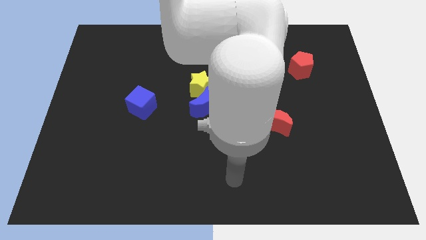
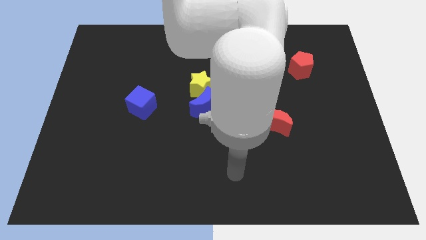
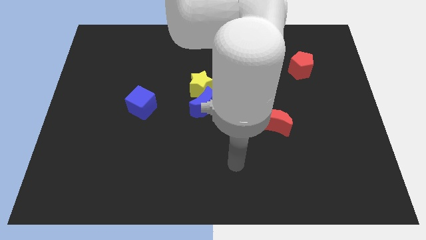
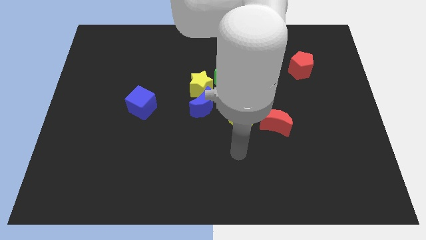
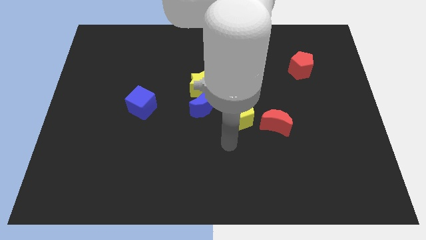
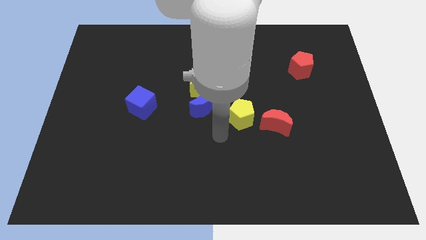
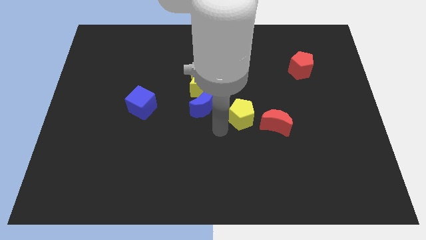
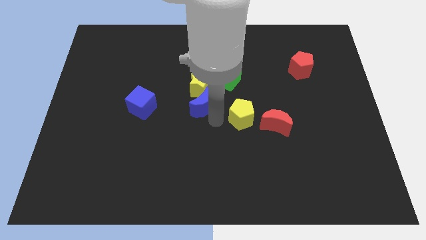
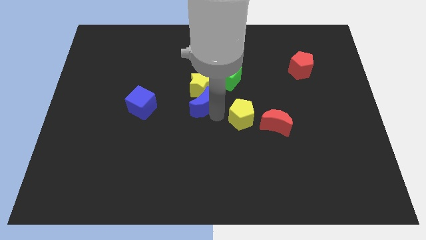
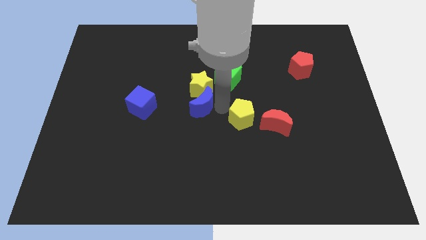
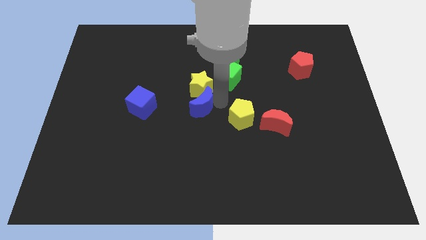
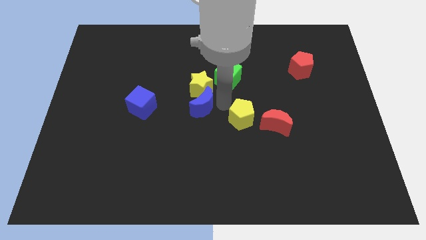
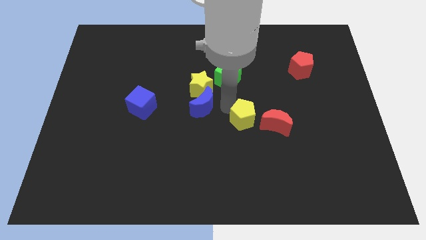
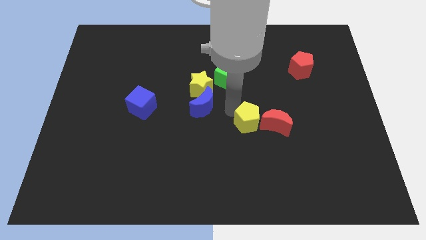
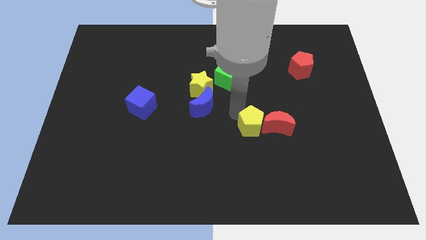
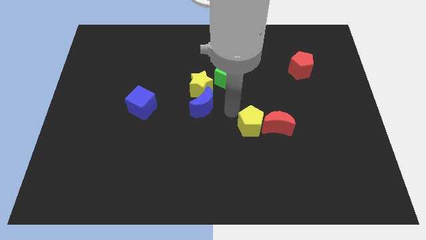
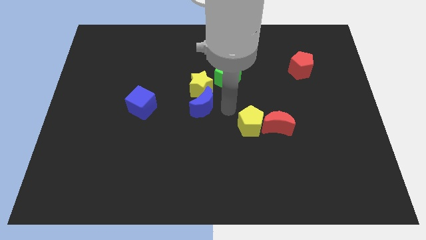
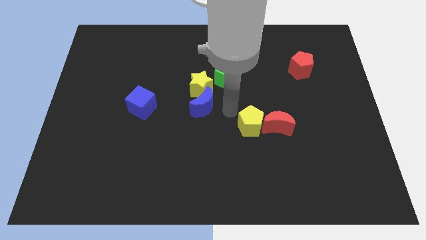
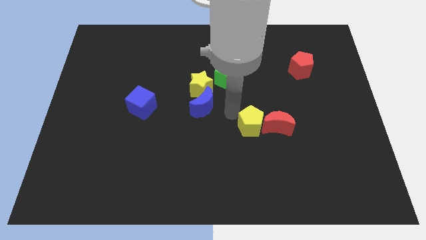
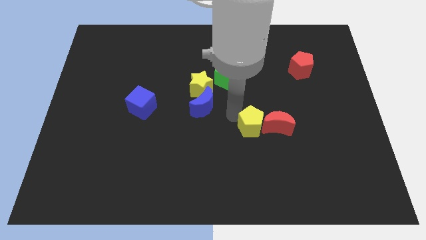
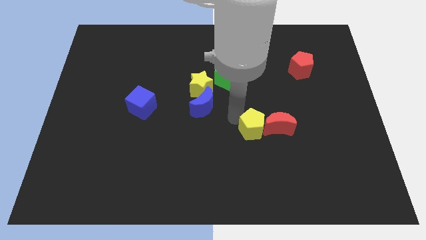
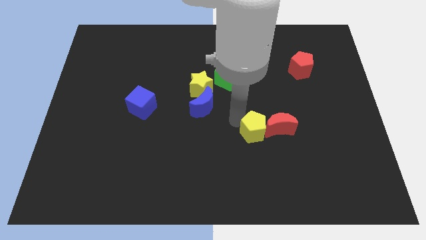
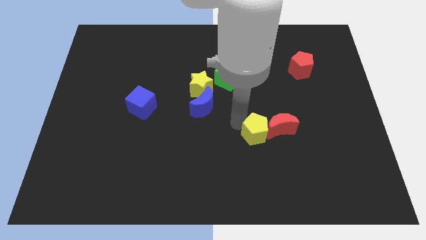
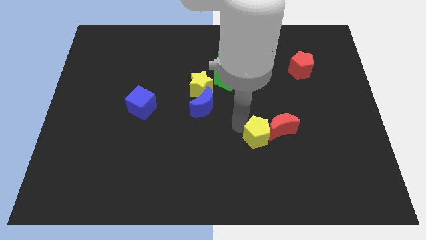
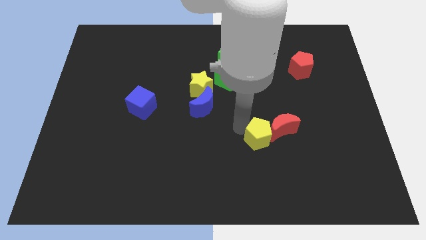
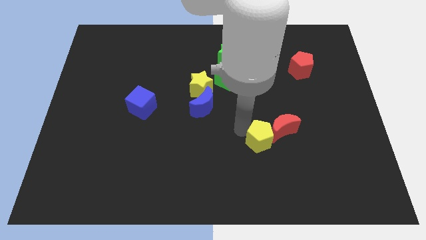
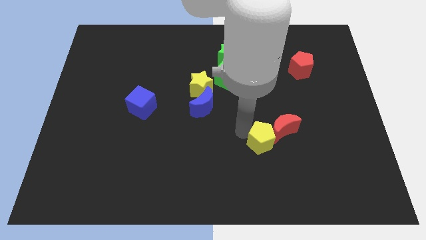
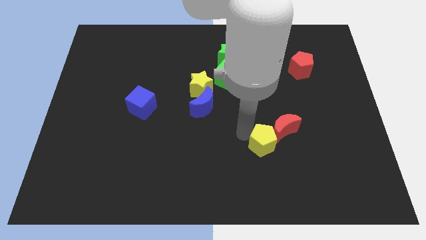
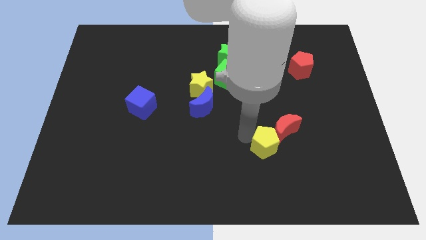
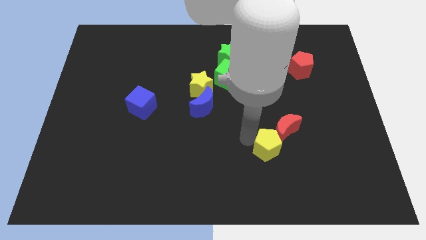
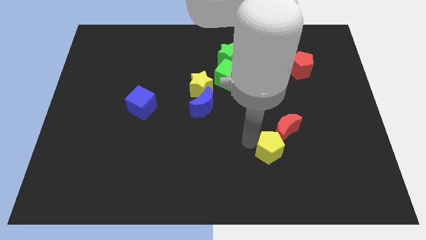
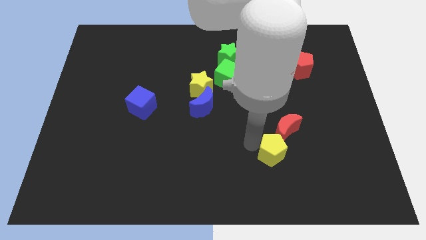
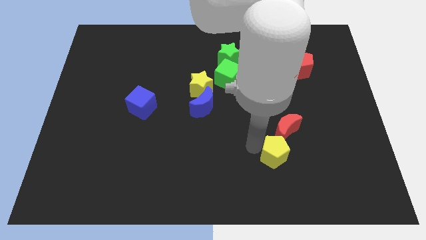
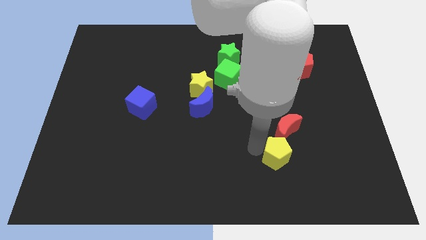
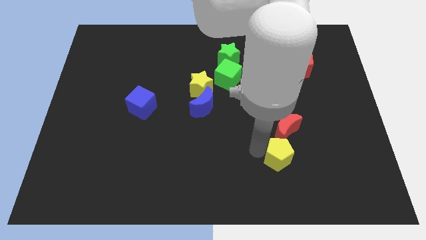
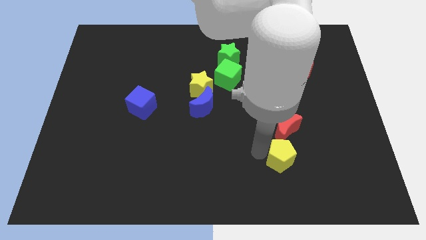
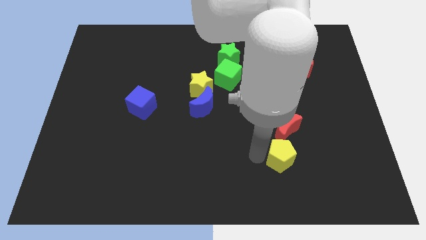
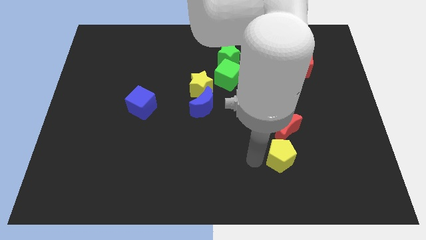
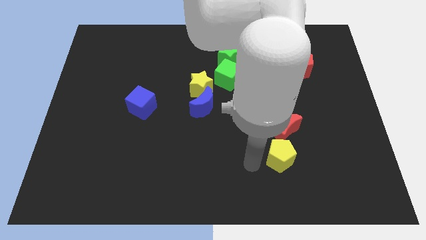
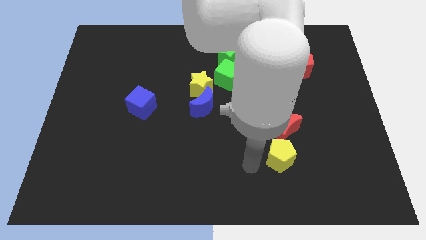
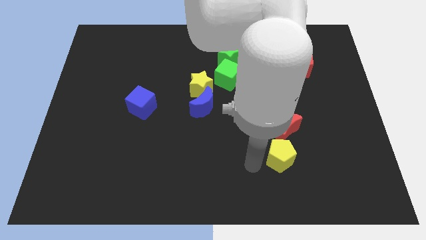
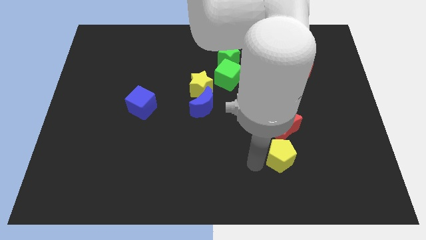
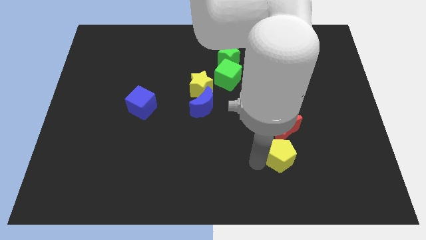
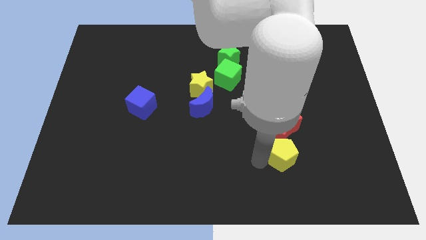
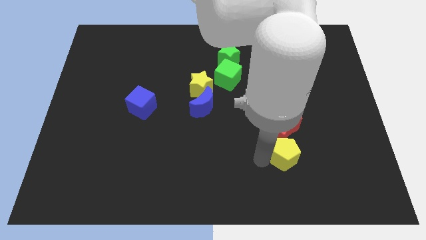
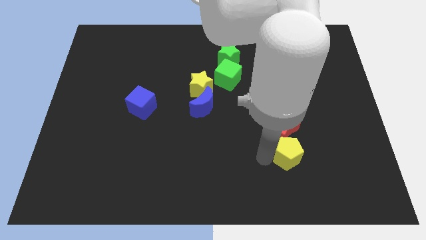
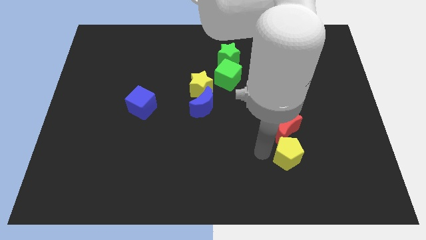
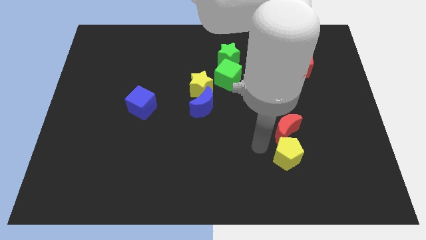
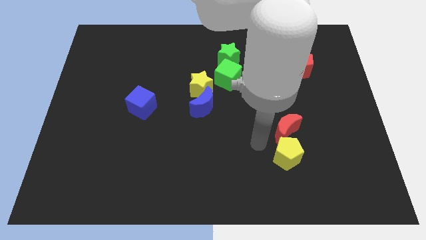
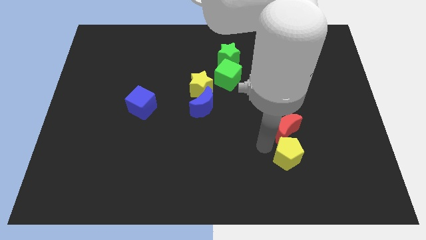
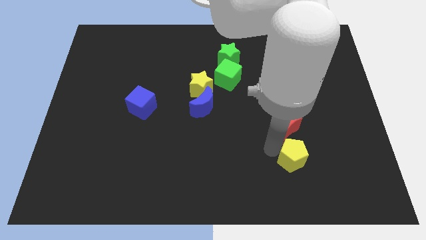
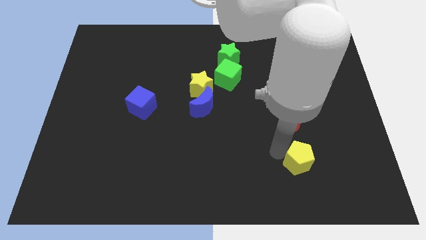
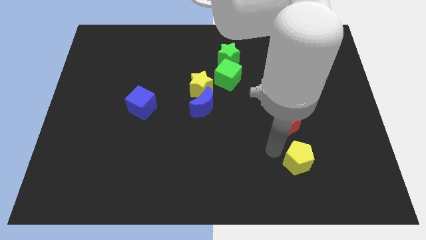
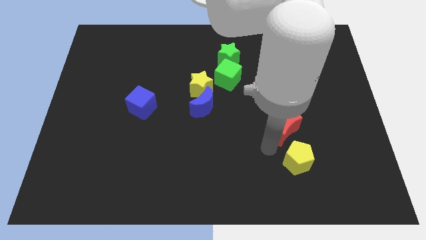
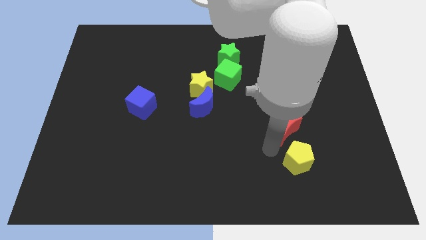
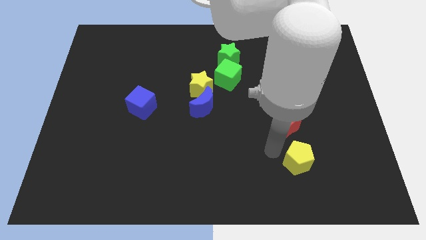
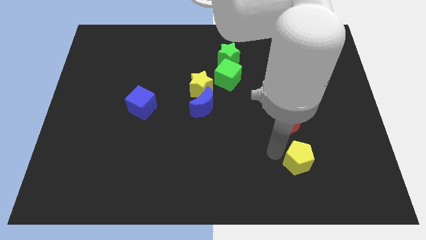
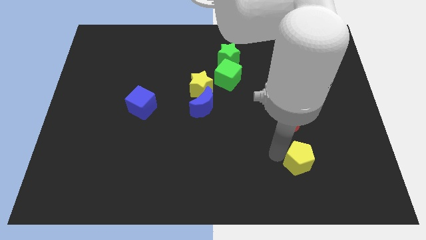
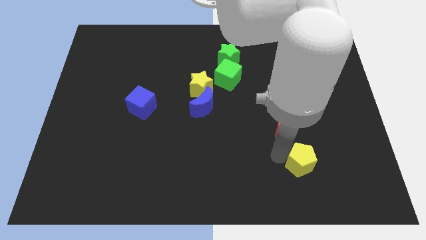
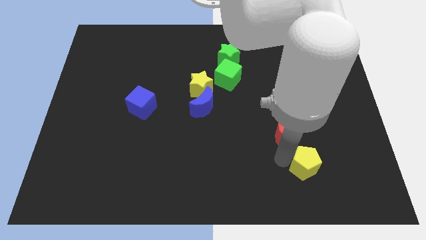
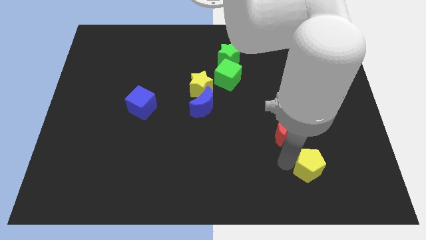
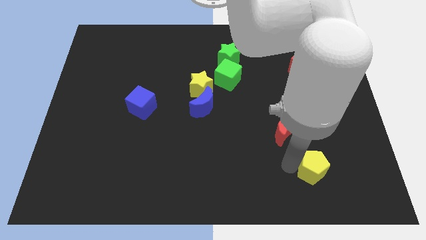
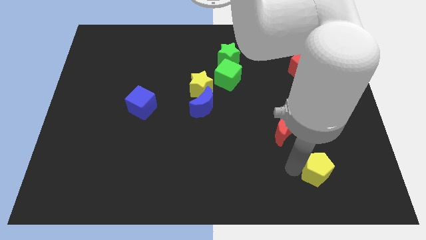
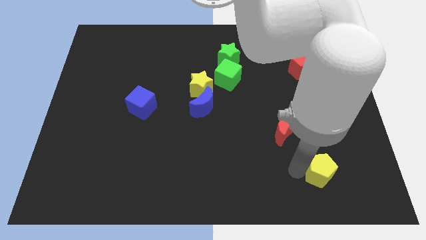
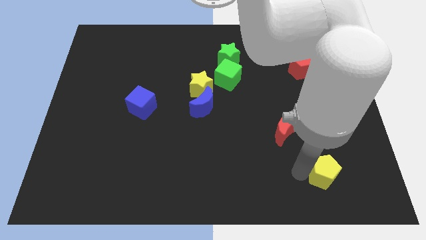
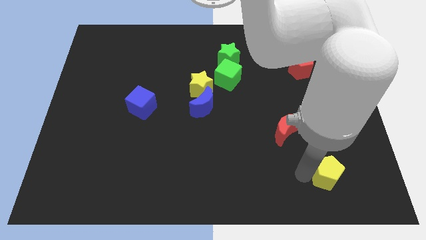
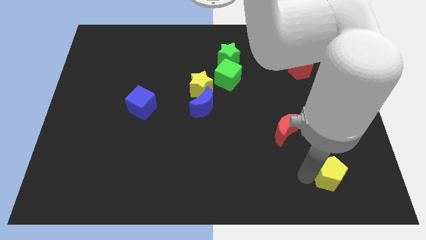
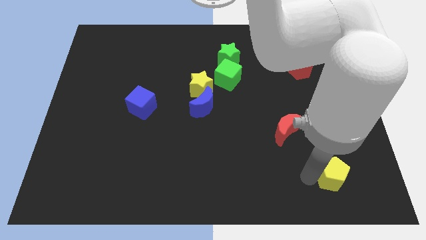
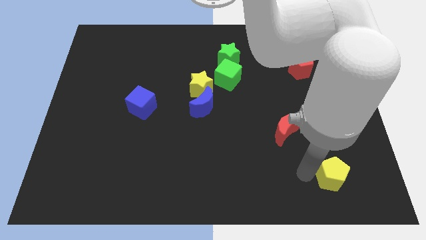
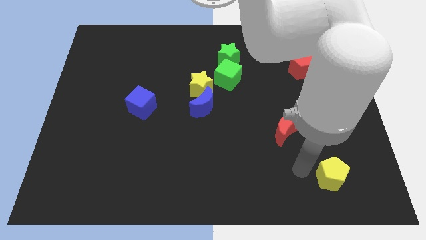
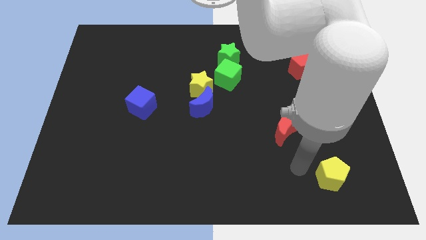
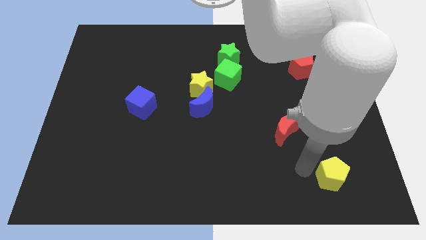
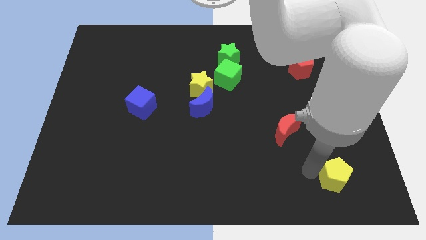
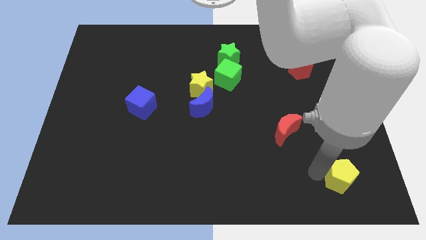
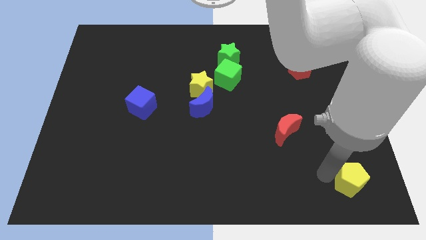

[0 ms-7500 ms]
slide the yellow pentagon to the bottom right
